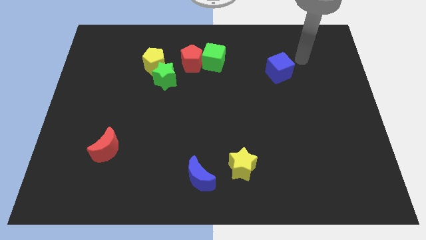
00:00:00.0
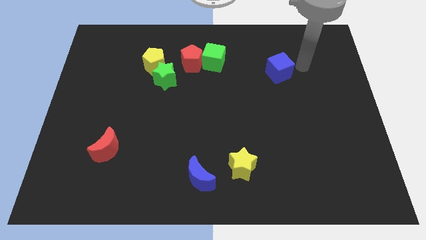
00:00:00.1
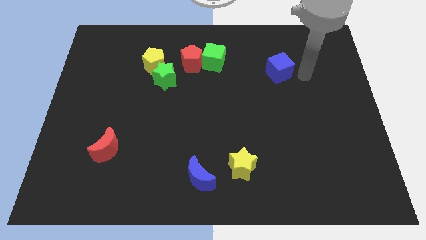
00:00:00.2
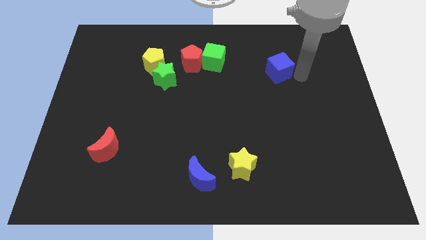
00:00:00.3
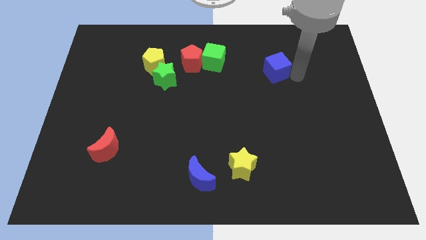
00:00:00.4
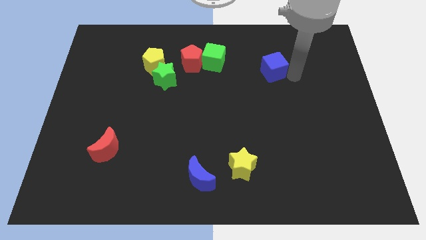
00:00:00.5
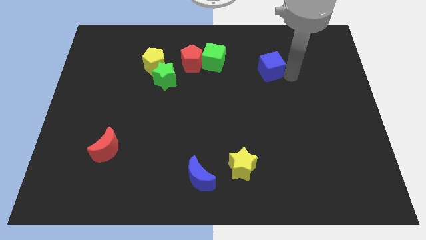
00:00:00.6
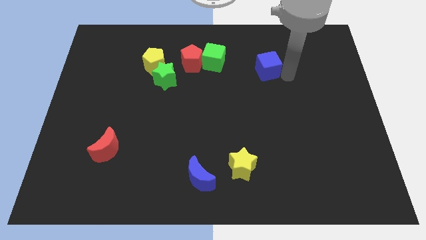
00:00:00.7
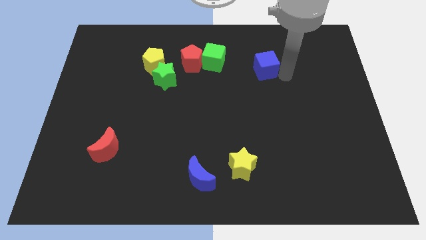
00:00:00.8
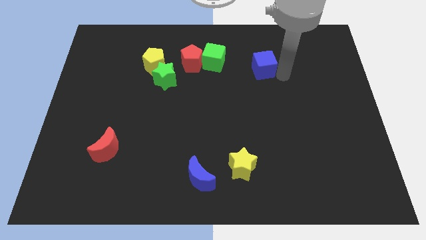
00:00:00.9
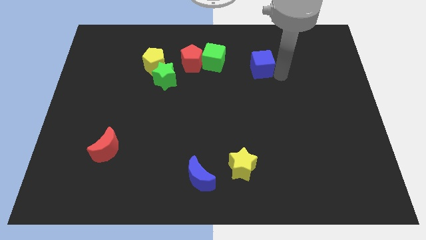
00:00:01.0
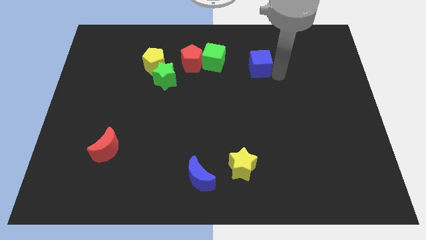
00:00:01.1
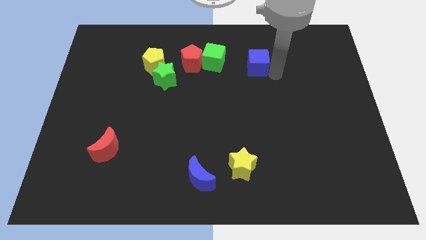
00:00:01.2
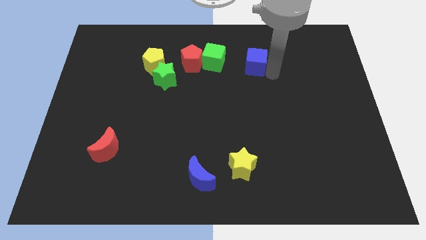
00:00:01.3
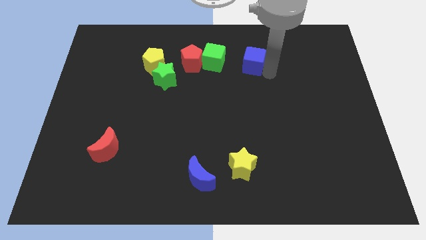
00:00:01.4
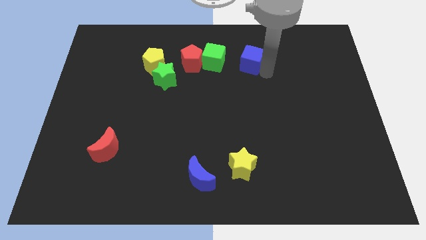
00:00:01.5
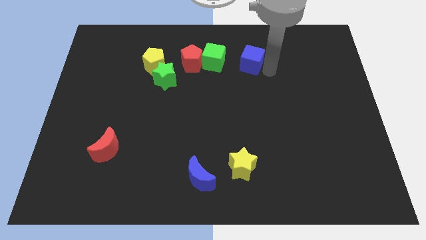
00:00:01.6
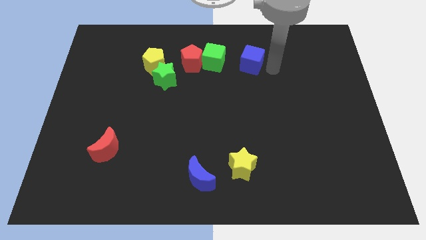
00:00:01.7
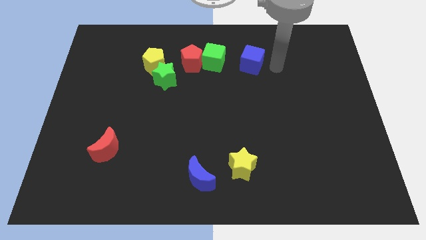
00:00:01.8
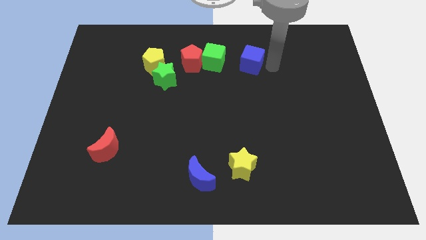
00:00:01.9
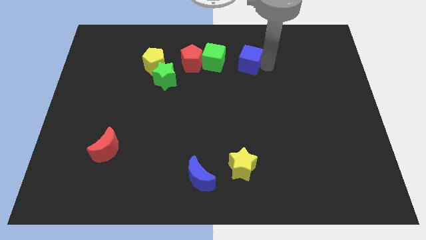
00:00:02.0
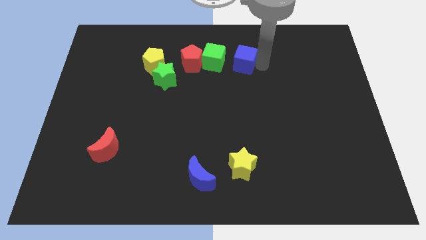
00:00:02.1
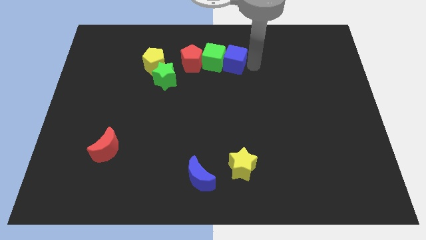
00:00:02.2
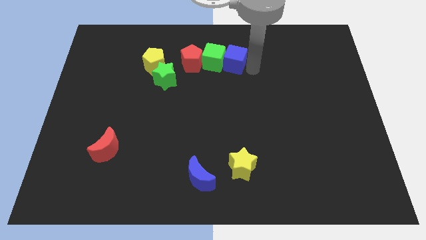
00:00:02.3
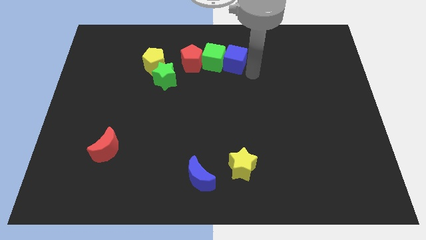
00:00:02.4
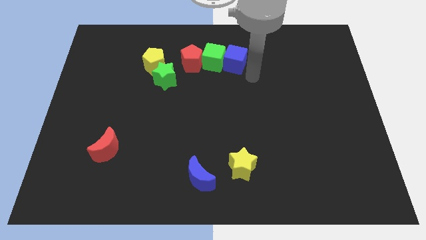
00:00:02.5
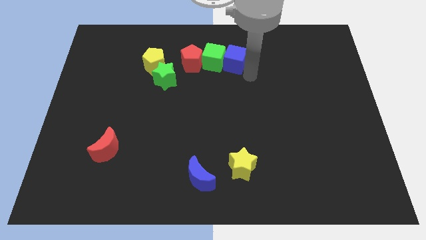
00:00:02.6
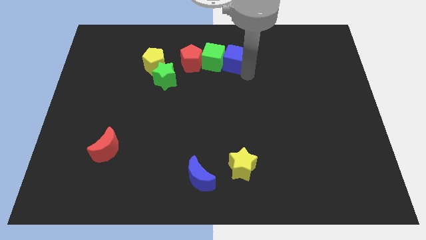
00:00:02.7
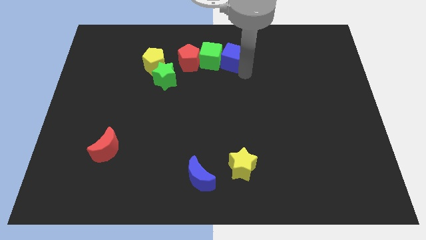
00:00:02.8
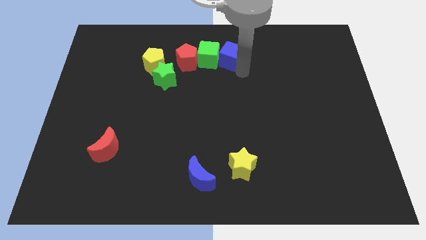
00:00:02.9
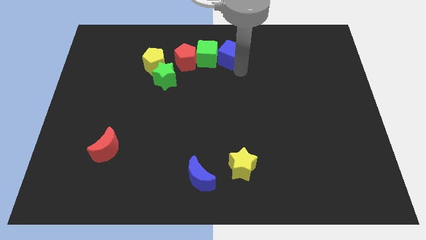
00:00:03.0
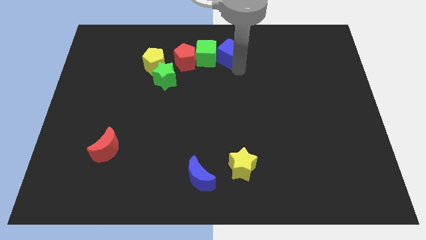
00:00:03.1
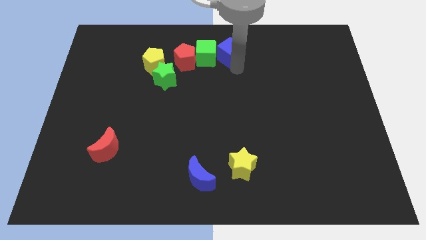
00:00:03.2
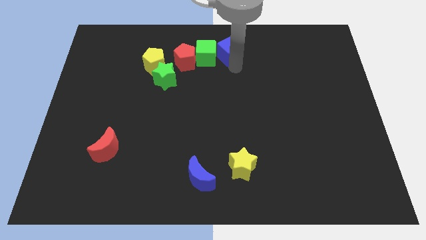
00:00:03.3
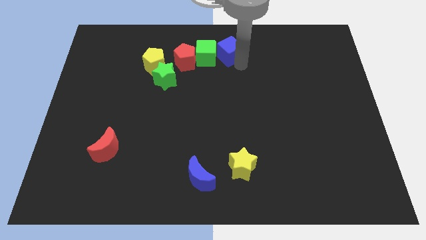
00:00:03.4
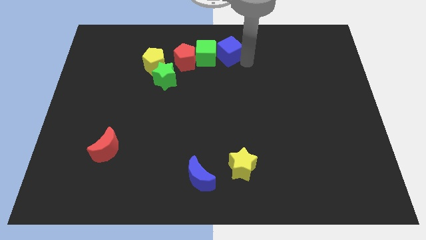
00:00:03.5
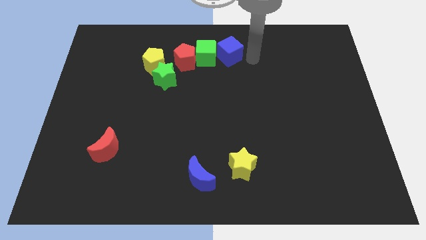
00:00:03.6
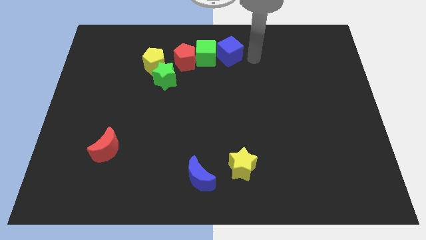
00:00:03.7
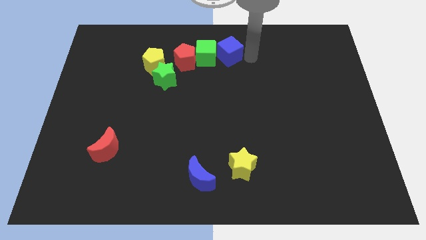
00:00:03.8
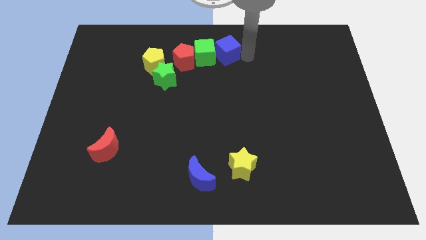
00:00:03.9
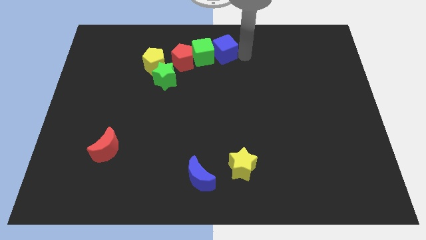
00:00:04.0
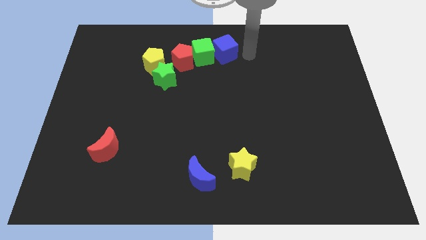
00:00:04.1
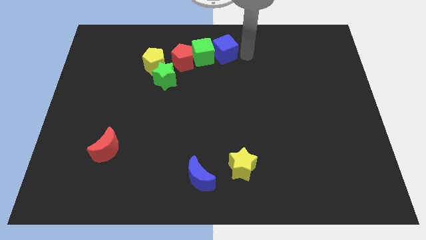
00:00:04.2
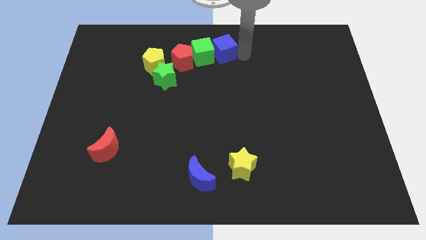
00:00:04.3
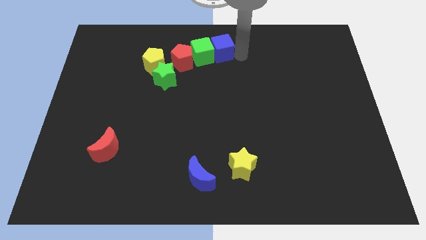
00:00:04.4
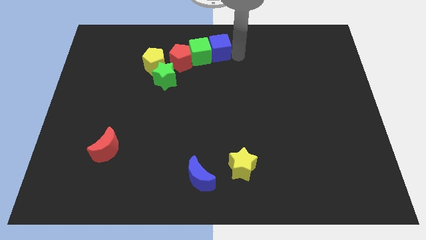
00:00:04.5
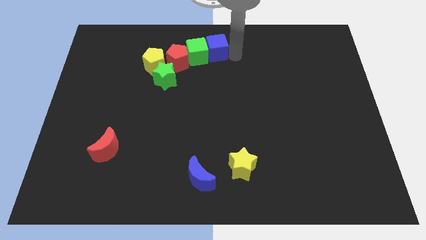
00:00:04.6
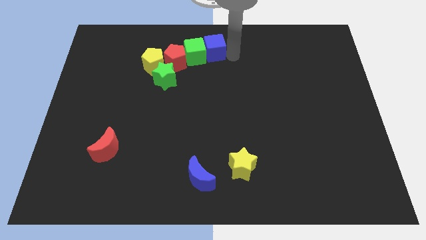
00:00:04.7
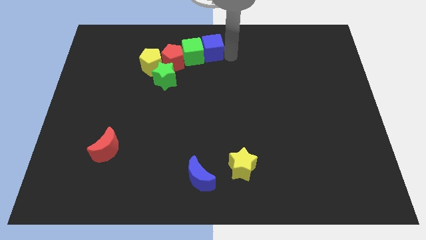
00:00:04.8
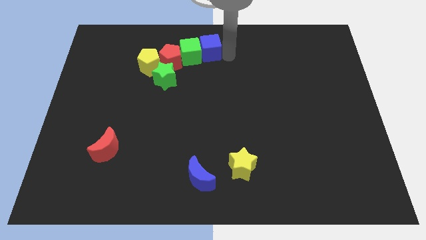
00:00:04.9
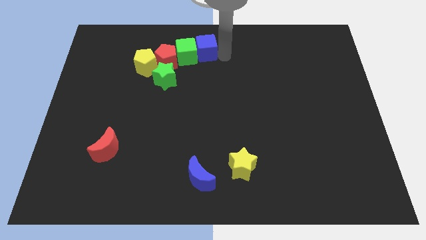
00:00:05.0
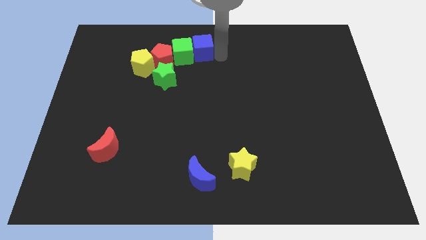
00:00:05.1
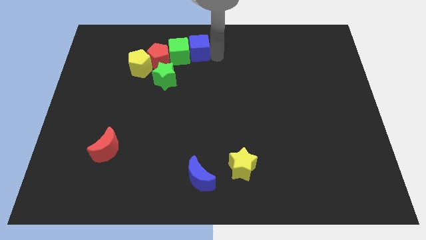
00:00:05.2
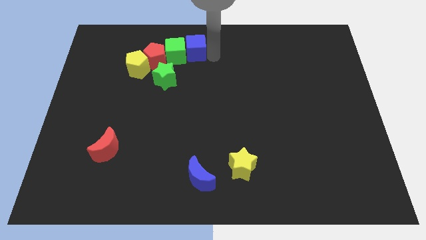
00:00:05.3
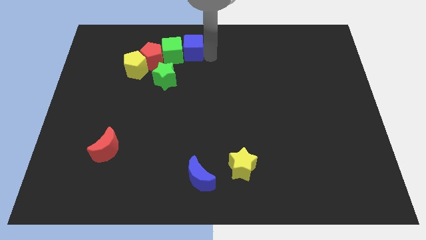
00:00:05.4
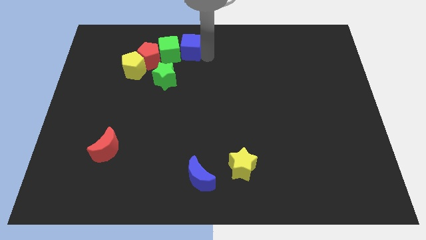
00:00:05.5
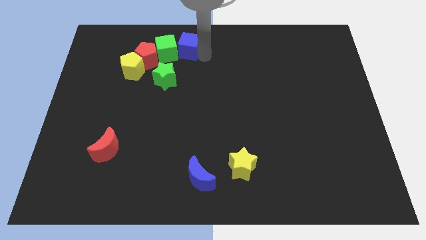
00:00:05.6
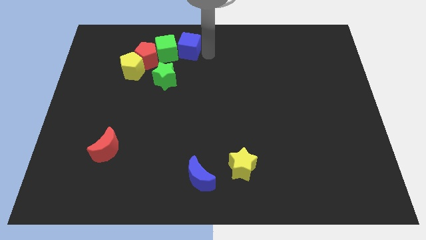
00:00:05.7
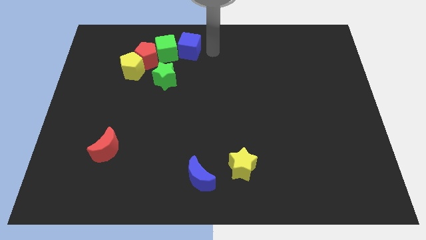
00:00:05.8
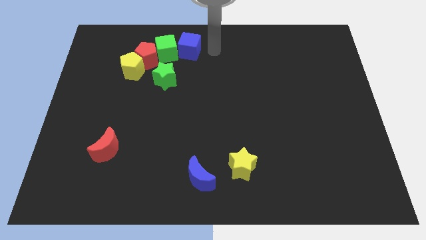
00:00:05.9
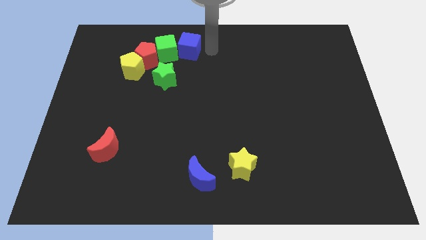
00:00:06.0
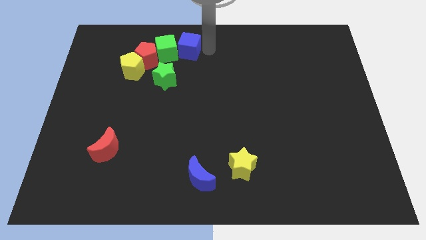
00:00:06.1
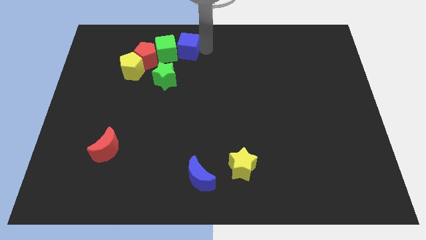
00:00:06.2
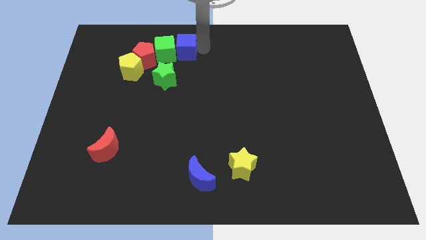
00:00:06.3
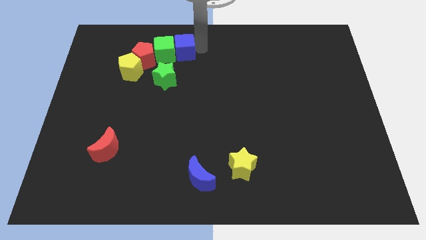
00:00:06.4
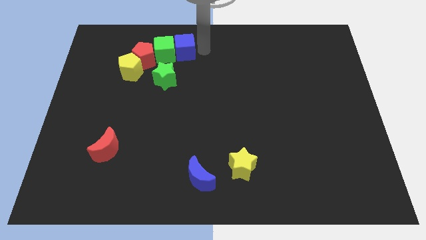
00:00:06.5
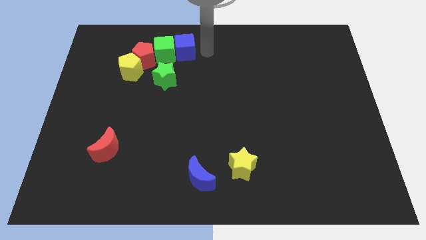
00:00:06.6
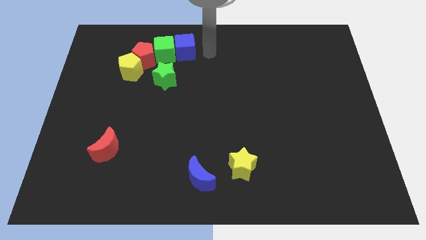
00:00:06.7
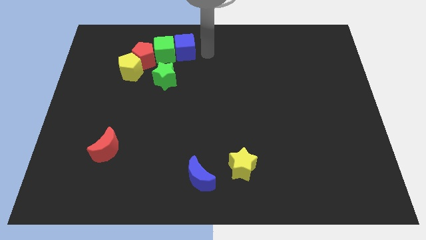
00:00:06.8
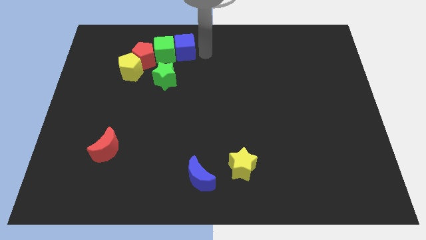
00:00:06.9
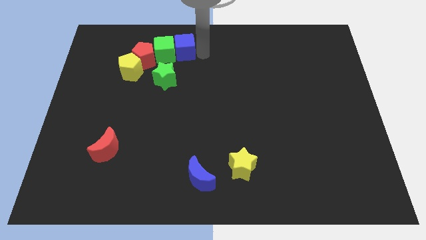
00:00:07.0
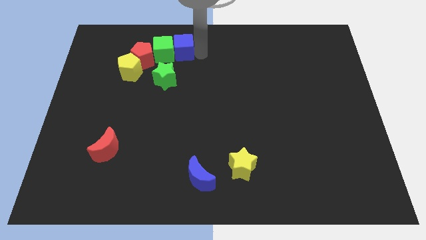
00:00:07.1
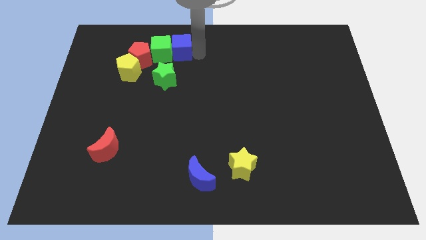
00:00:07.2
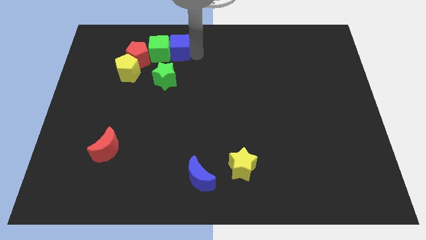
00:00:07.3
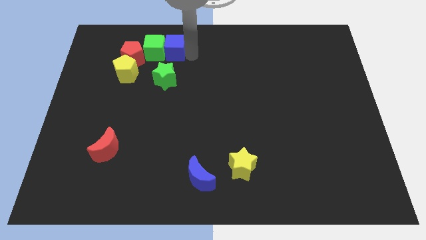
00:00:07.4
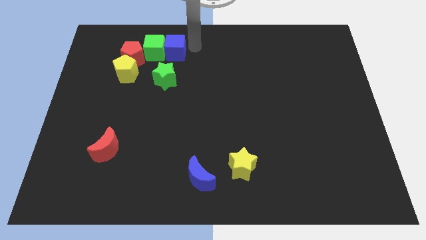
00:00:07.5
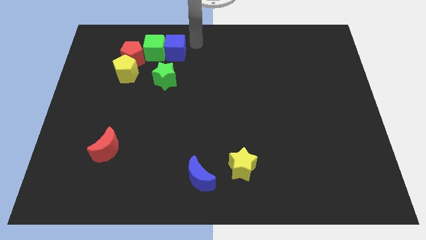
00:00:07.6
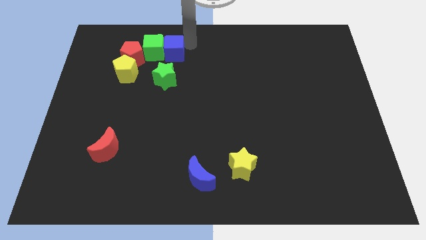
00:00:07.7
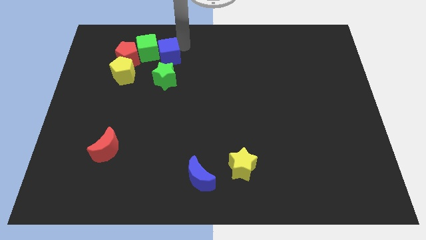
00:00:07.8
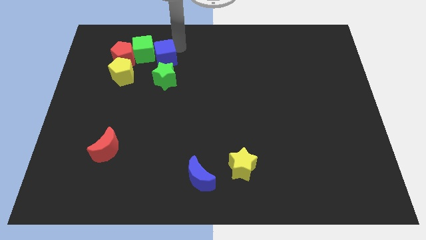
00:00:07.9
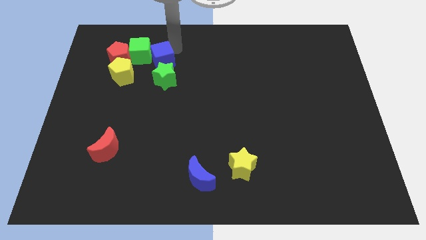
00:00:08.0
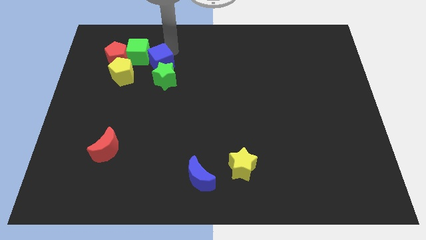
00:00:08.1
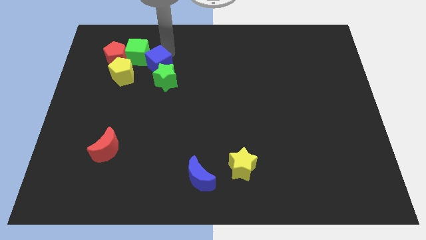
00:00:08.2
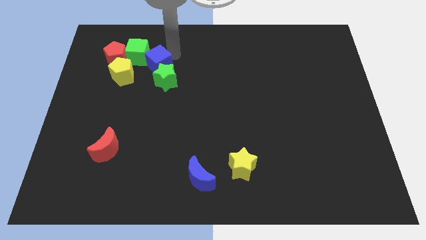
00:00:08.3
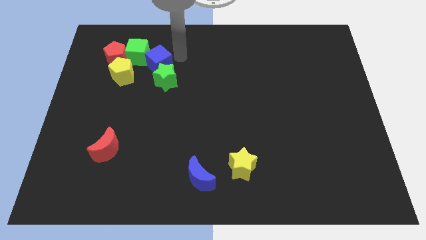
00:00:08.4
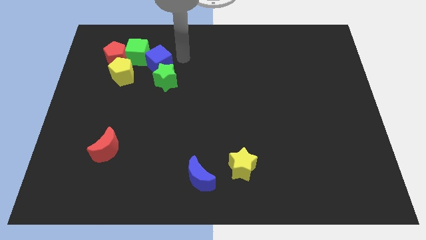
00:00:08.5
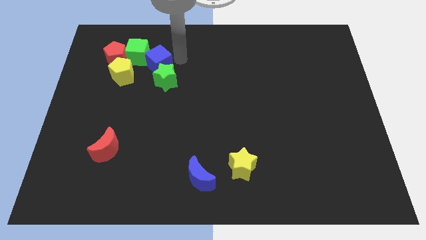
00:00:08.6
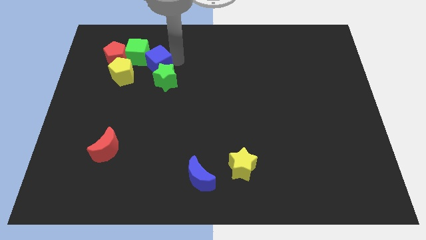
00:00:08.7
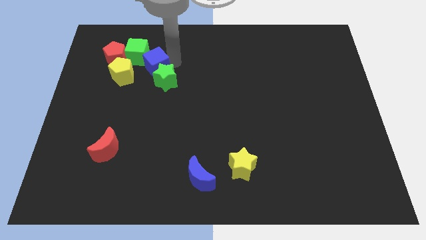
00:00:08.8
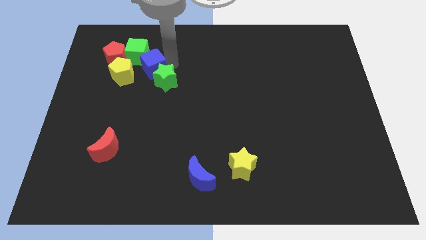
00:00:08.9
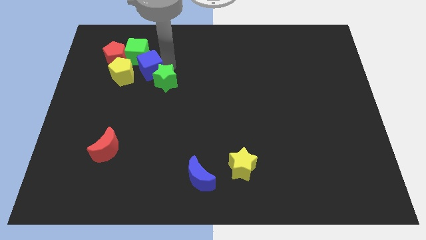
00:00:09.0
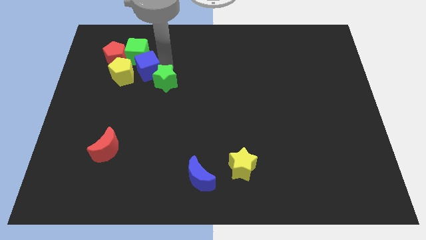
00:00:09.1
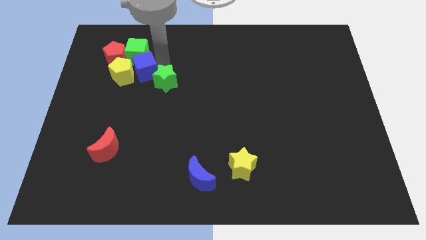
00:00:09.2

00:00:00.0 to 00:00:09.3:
move the blue cube close to the yellow pentagon
